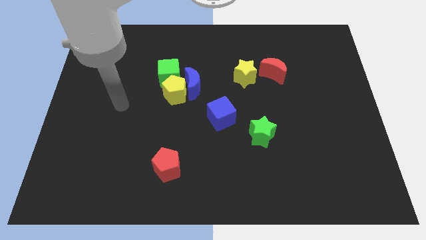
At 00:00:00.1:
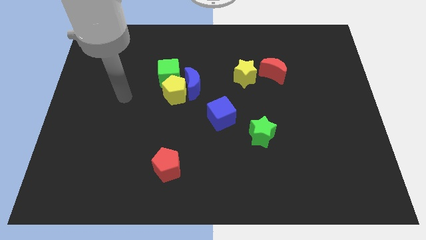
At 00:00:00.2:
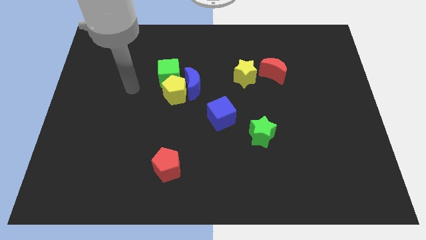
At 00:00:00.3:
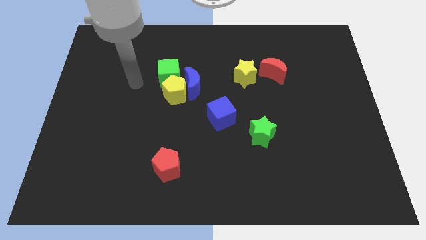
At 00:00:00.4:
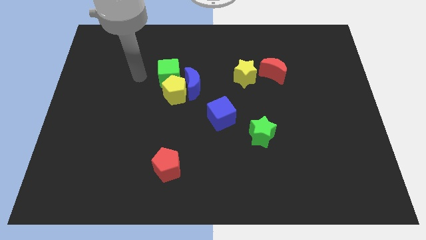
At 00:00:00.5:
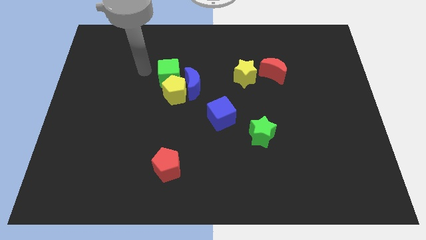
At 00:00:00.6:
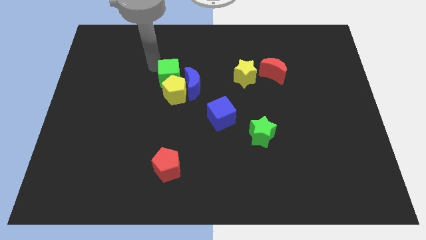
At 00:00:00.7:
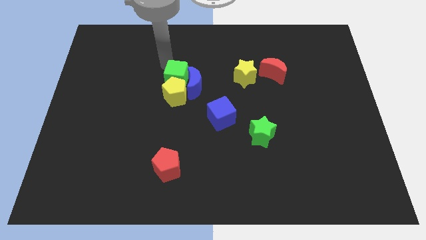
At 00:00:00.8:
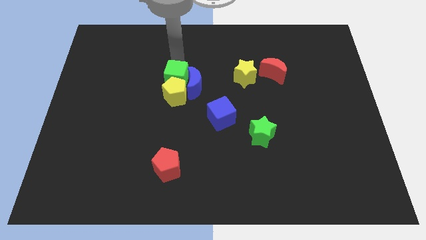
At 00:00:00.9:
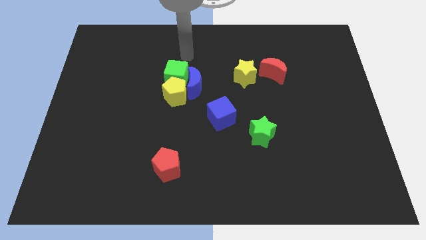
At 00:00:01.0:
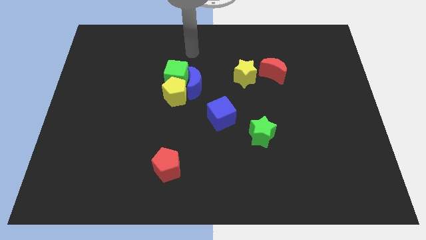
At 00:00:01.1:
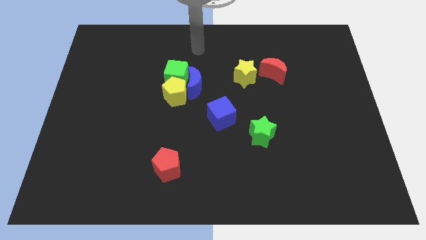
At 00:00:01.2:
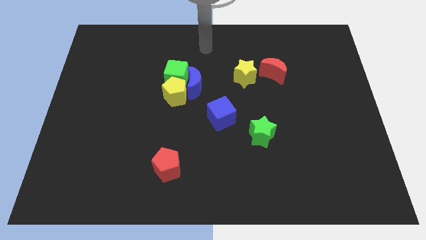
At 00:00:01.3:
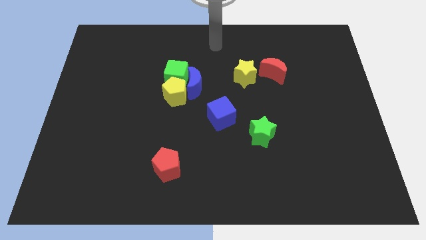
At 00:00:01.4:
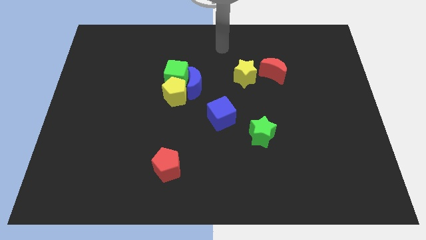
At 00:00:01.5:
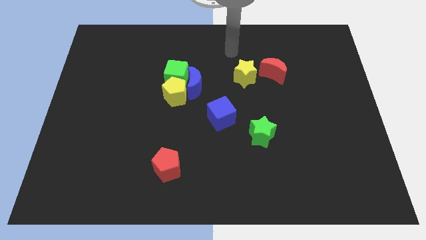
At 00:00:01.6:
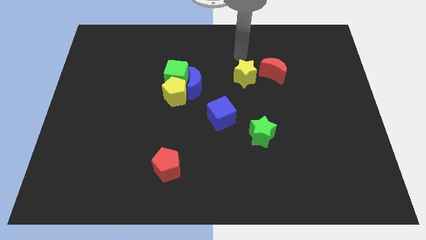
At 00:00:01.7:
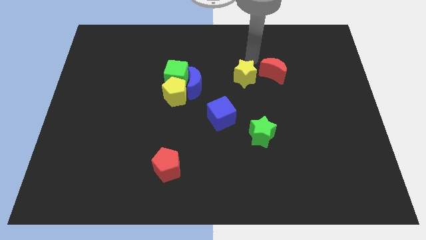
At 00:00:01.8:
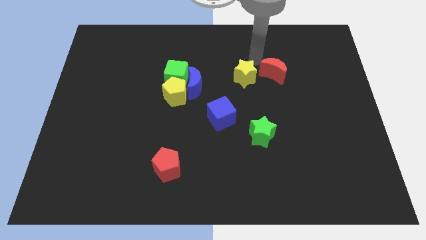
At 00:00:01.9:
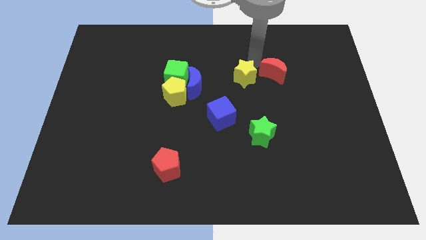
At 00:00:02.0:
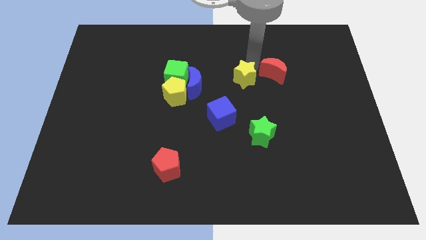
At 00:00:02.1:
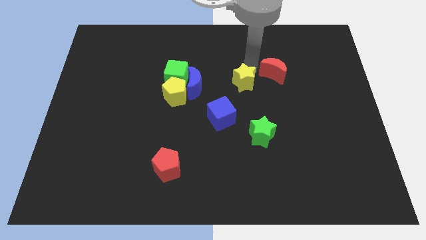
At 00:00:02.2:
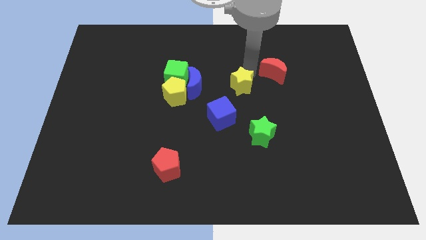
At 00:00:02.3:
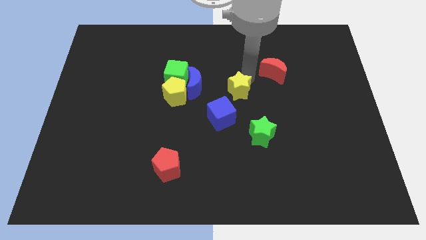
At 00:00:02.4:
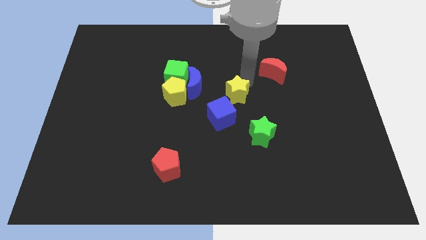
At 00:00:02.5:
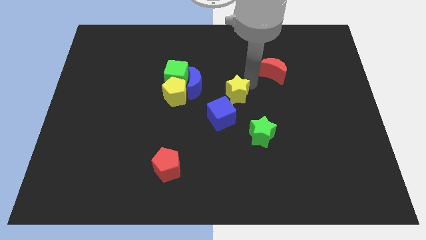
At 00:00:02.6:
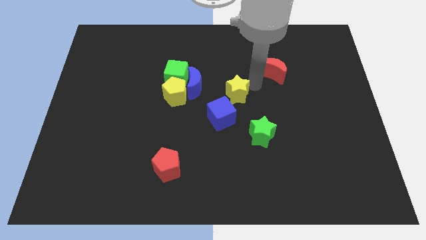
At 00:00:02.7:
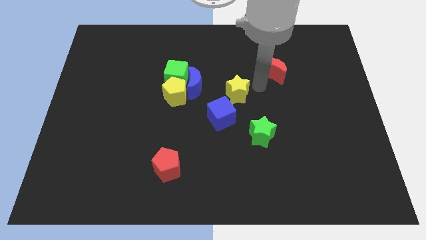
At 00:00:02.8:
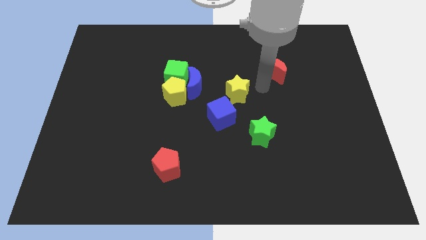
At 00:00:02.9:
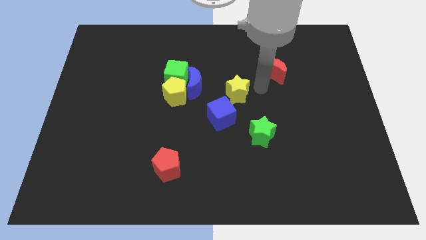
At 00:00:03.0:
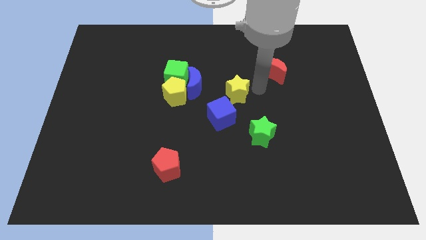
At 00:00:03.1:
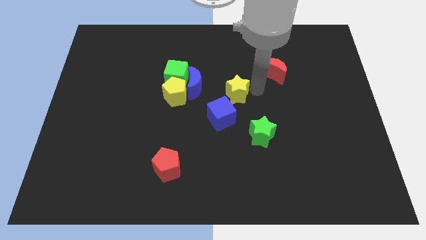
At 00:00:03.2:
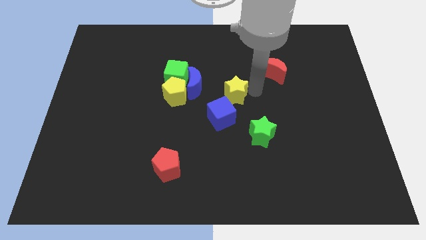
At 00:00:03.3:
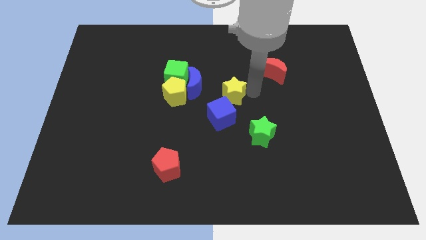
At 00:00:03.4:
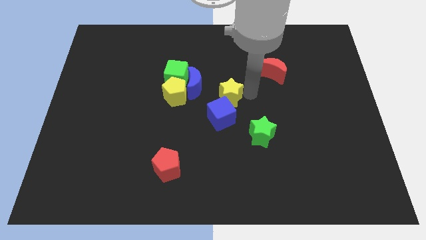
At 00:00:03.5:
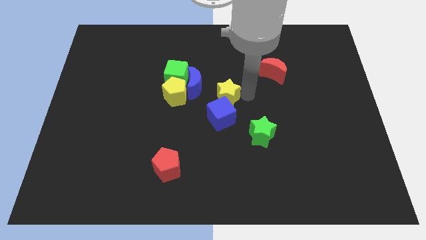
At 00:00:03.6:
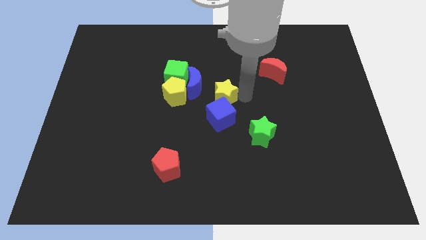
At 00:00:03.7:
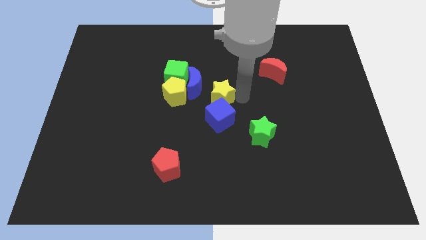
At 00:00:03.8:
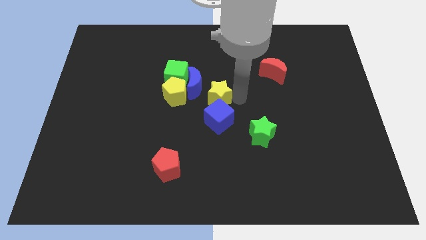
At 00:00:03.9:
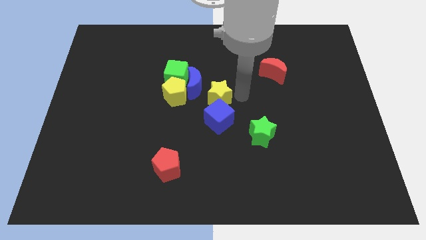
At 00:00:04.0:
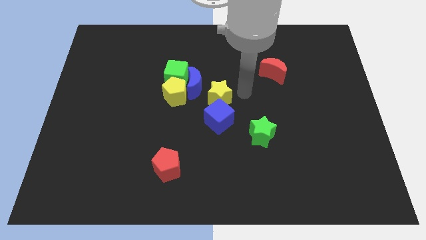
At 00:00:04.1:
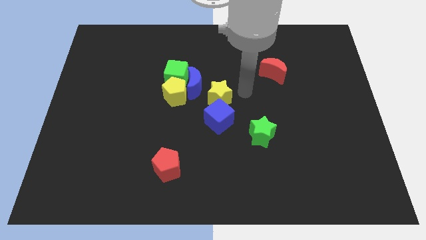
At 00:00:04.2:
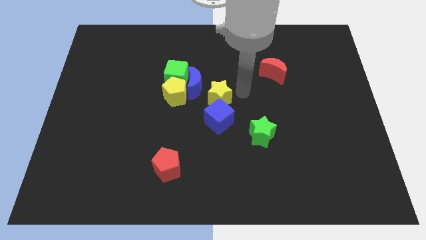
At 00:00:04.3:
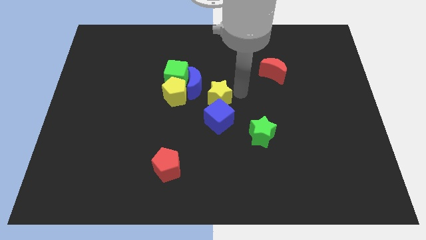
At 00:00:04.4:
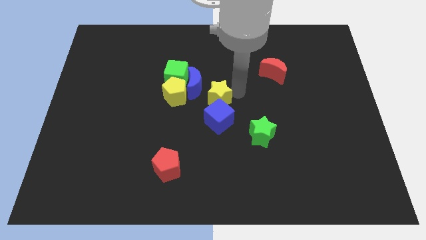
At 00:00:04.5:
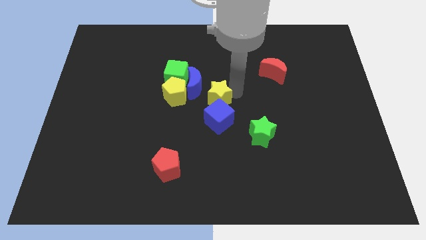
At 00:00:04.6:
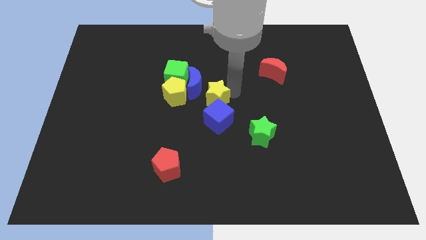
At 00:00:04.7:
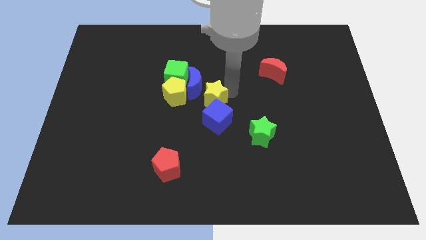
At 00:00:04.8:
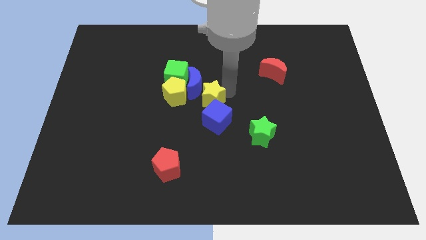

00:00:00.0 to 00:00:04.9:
slide the yellow star to the bottom of the blue moon

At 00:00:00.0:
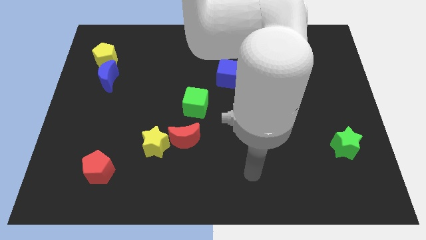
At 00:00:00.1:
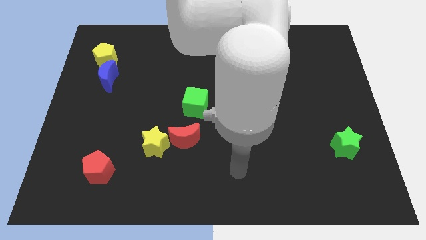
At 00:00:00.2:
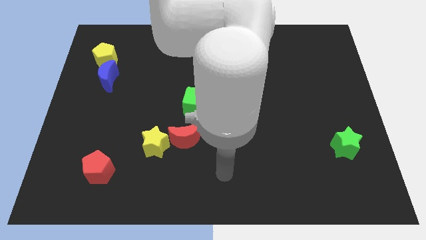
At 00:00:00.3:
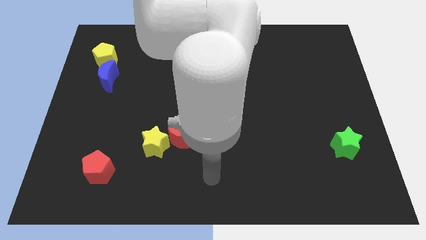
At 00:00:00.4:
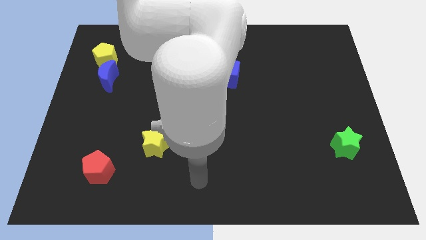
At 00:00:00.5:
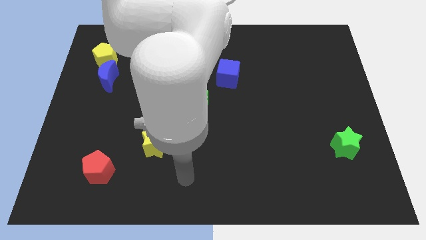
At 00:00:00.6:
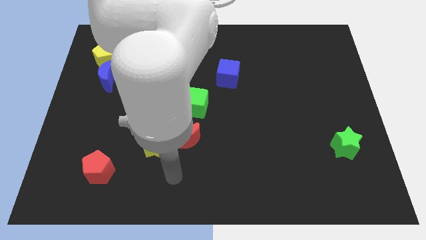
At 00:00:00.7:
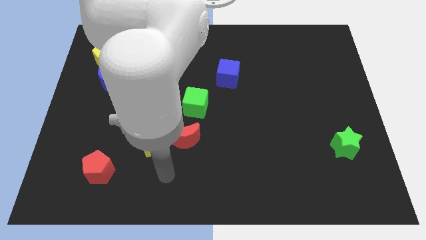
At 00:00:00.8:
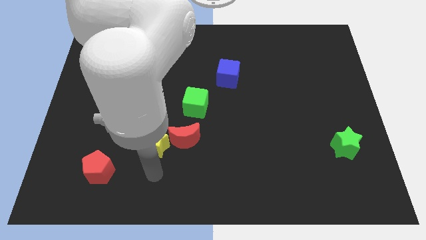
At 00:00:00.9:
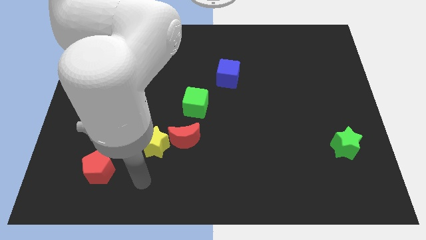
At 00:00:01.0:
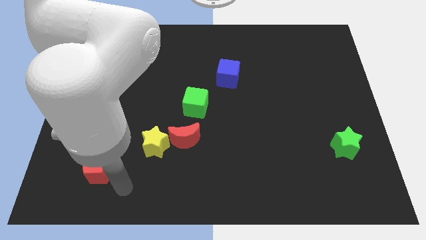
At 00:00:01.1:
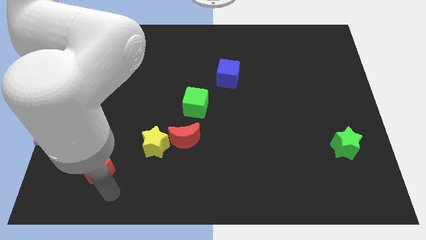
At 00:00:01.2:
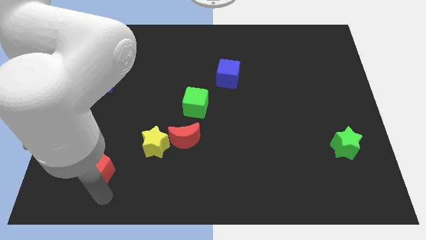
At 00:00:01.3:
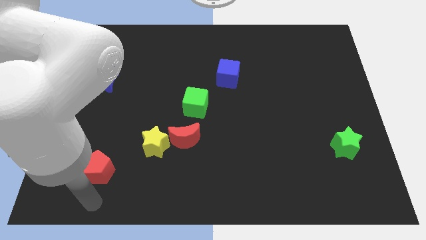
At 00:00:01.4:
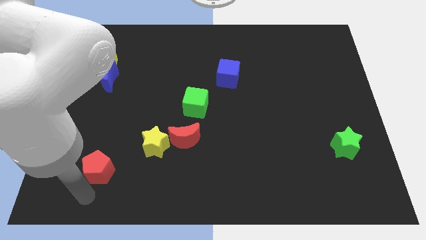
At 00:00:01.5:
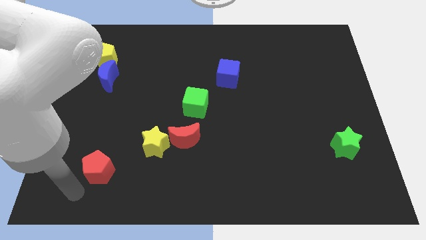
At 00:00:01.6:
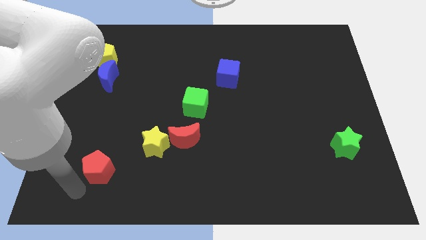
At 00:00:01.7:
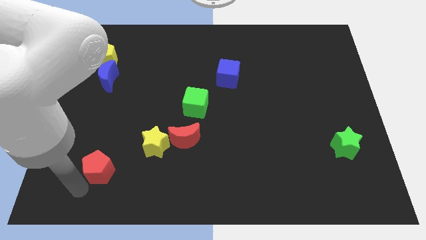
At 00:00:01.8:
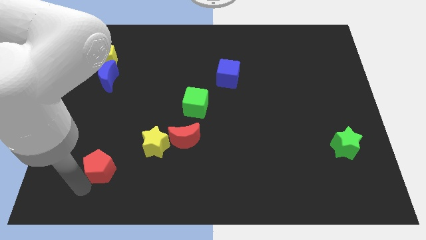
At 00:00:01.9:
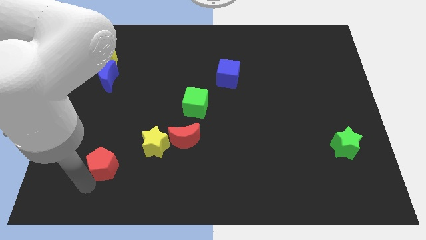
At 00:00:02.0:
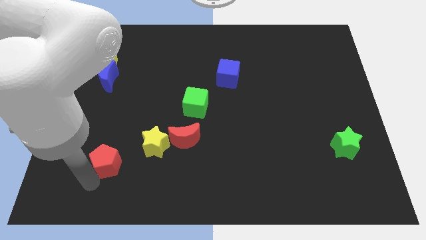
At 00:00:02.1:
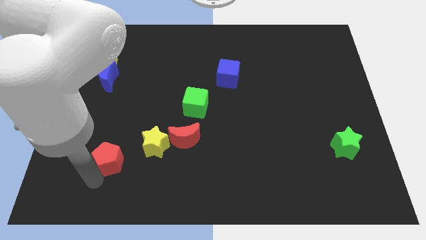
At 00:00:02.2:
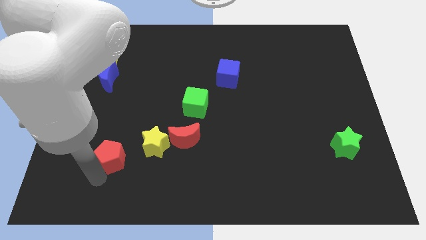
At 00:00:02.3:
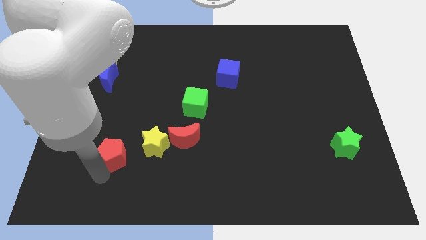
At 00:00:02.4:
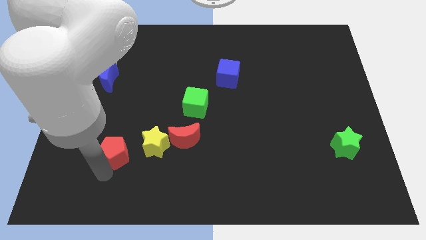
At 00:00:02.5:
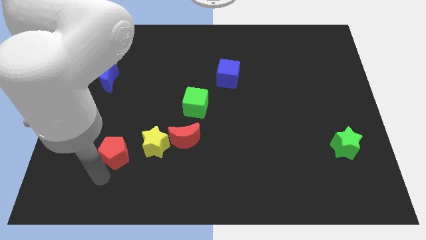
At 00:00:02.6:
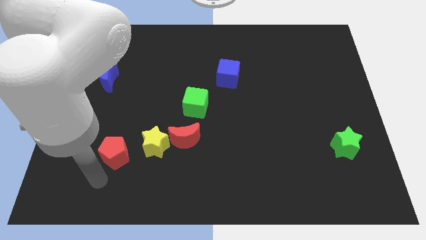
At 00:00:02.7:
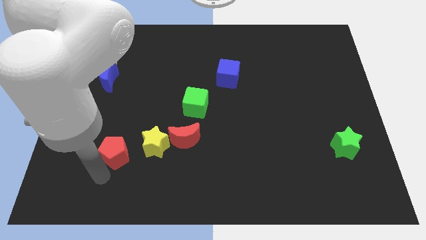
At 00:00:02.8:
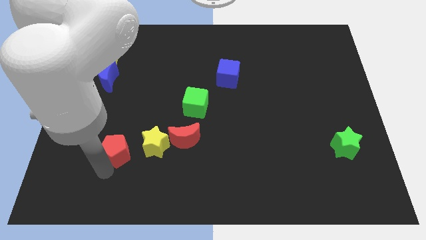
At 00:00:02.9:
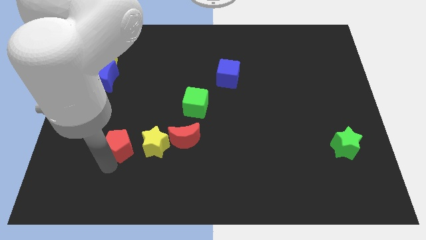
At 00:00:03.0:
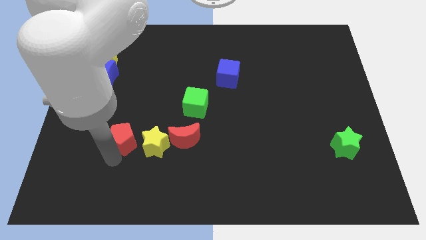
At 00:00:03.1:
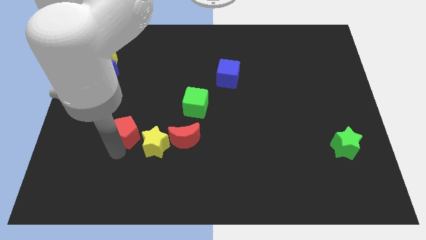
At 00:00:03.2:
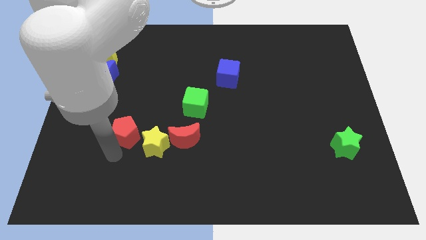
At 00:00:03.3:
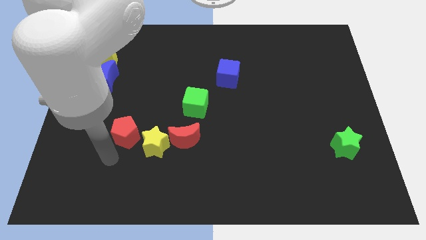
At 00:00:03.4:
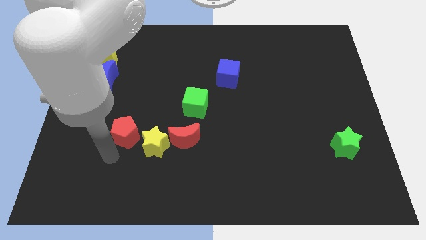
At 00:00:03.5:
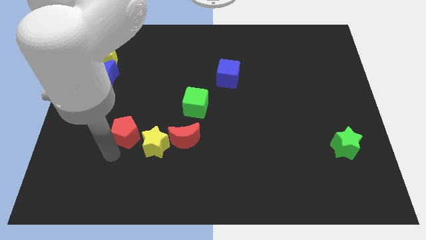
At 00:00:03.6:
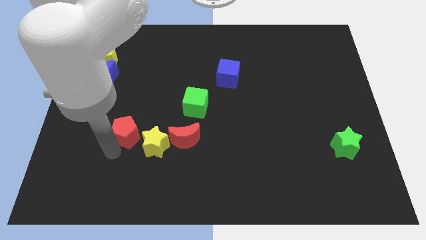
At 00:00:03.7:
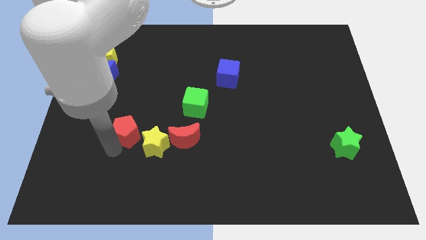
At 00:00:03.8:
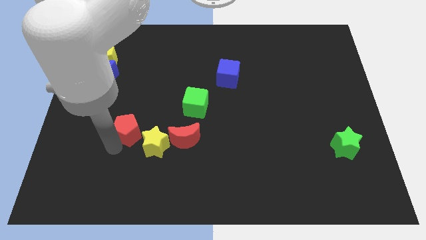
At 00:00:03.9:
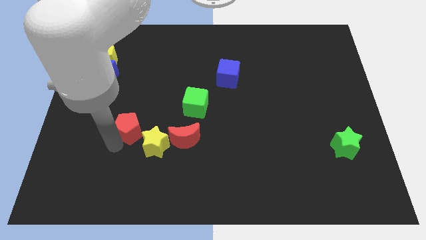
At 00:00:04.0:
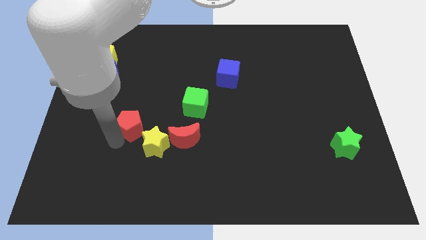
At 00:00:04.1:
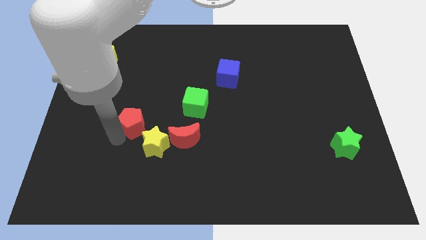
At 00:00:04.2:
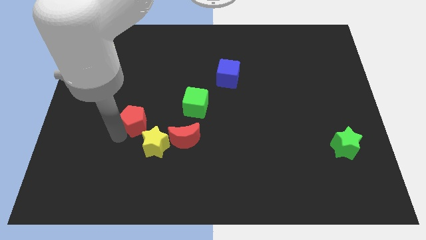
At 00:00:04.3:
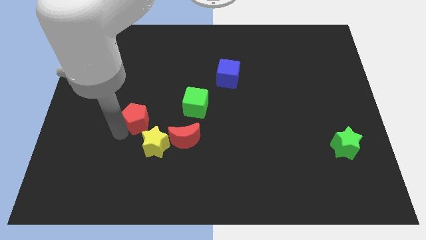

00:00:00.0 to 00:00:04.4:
slide the red pentagon to the left of the green cube
